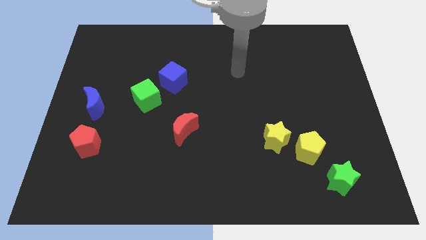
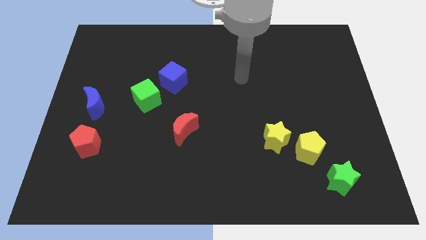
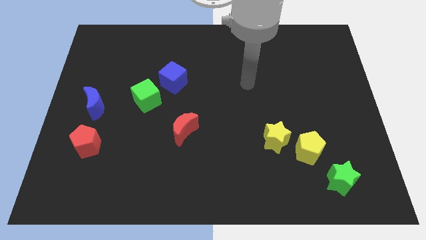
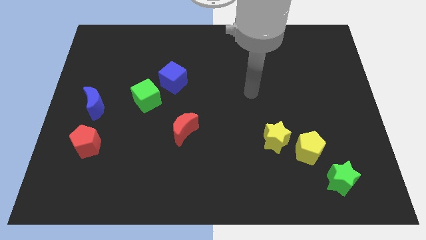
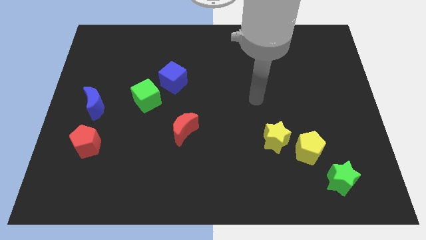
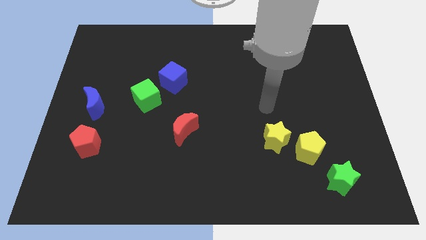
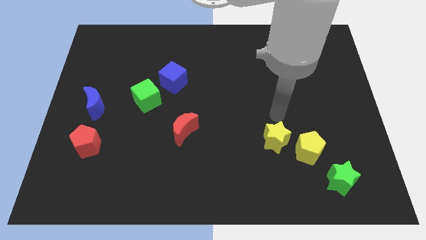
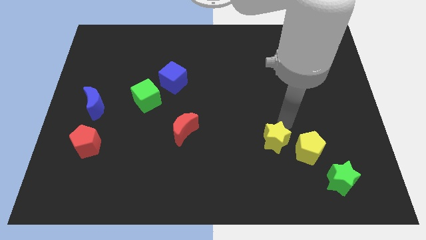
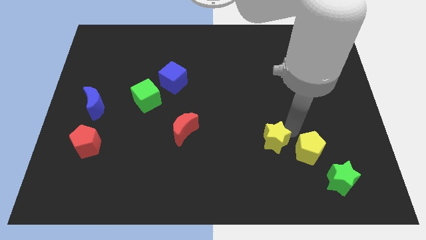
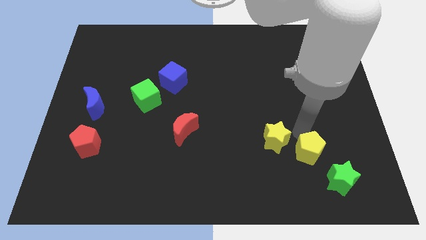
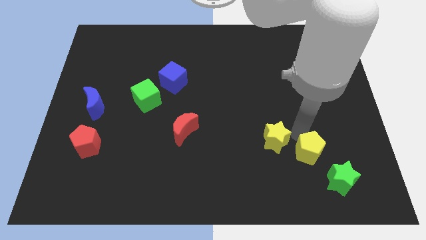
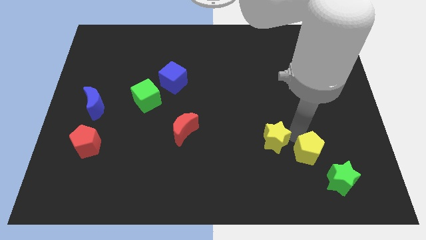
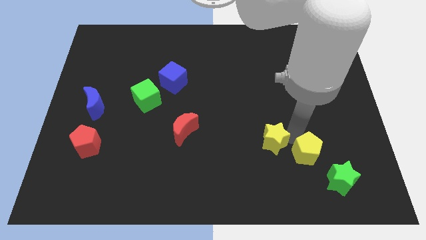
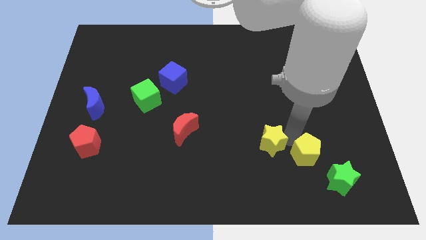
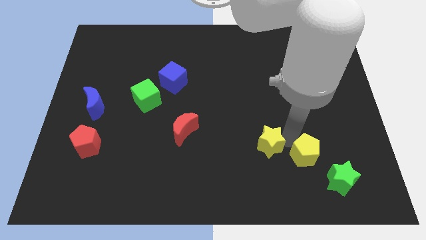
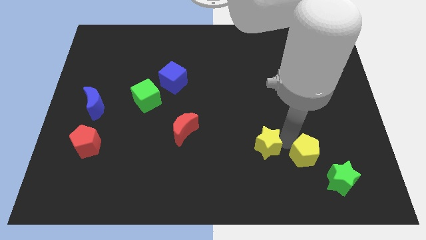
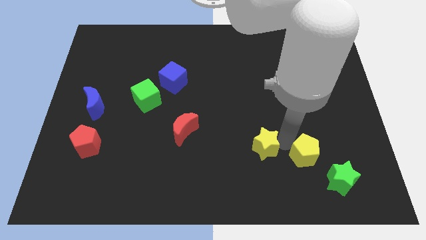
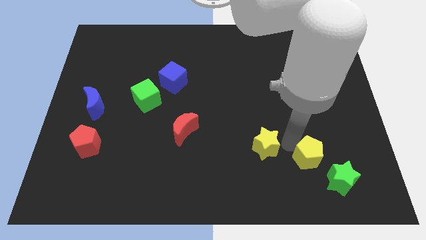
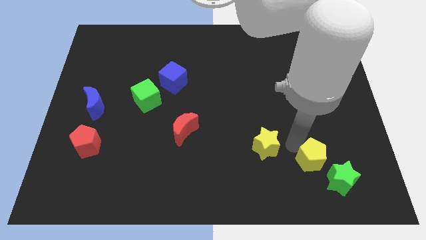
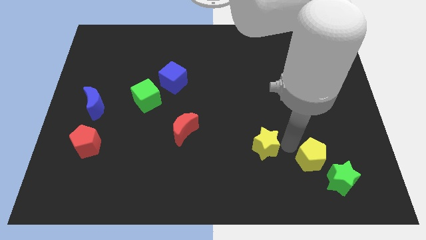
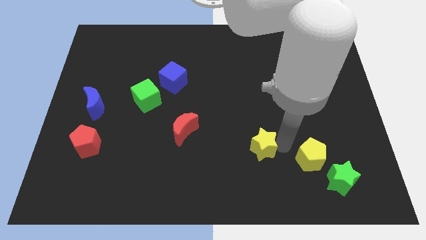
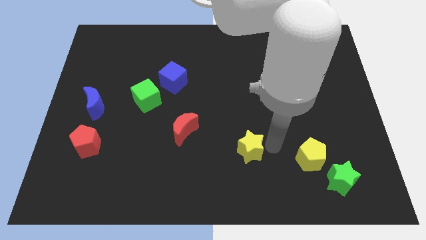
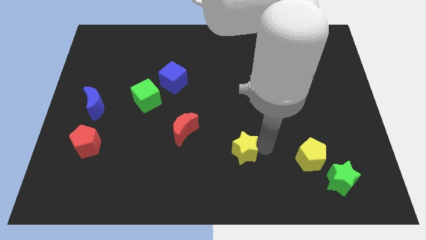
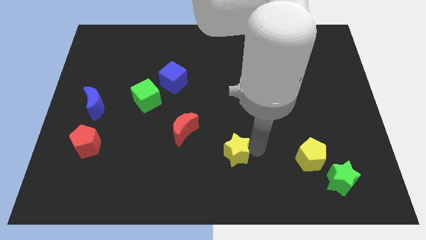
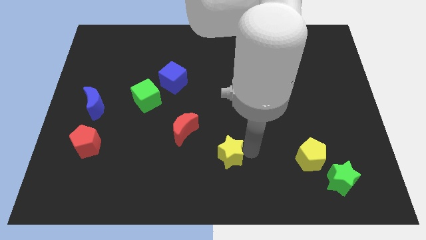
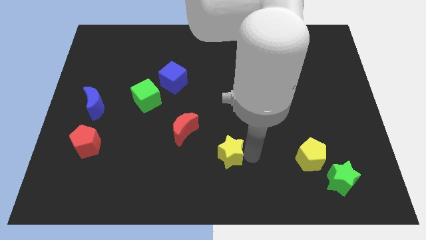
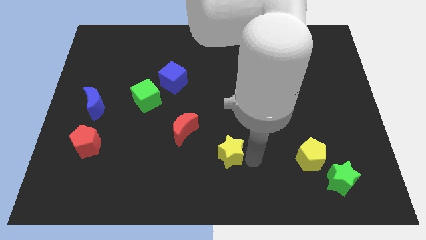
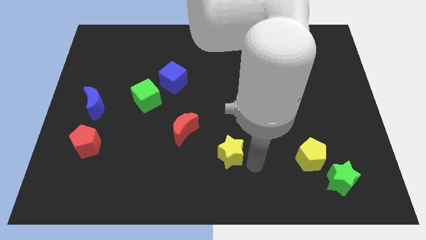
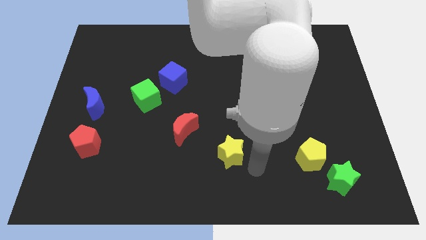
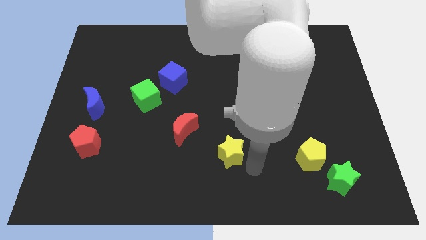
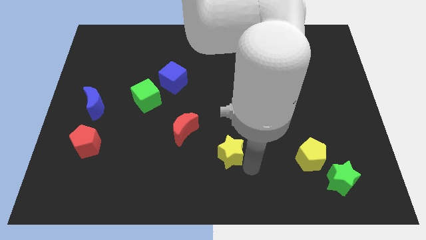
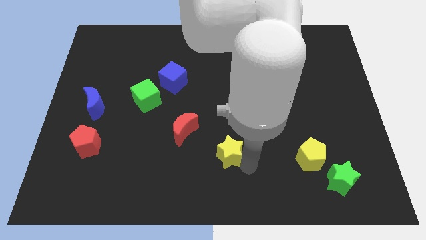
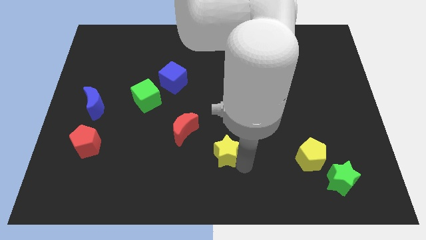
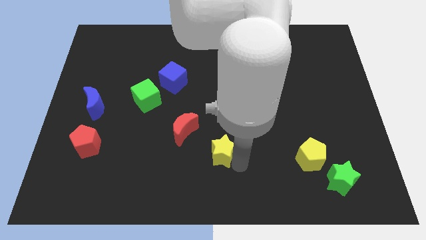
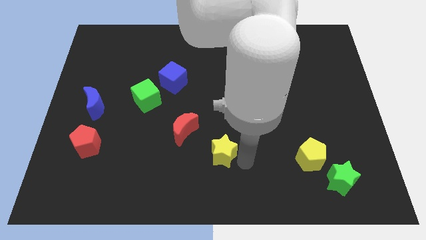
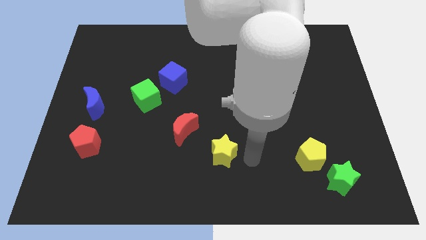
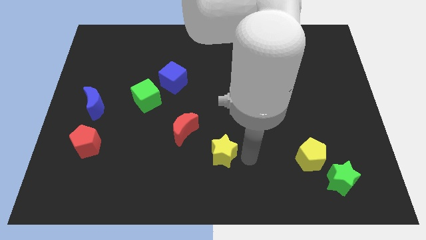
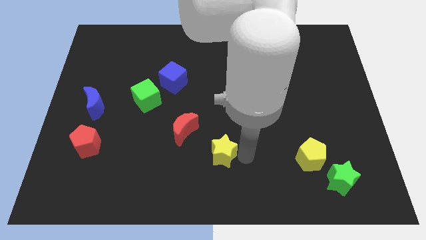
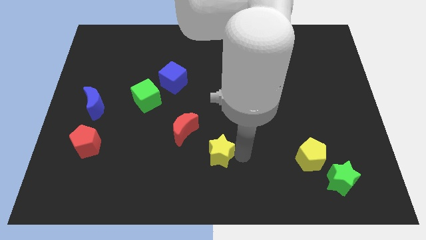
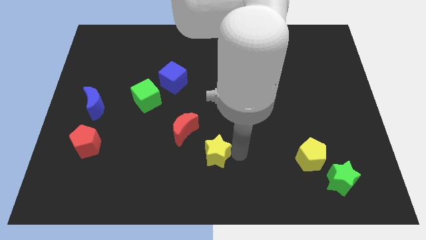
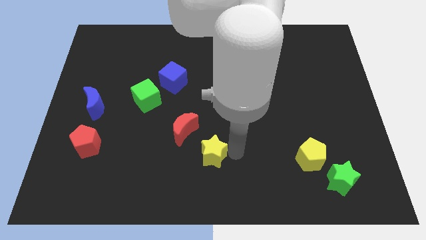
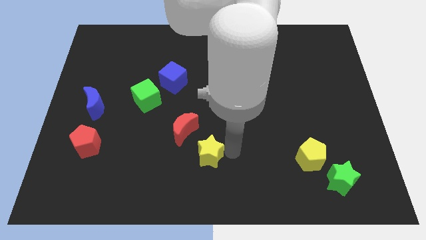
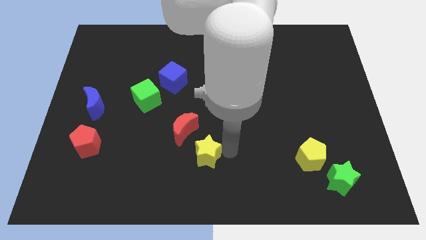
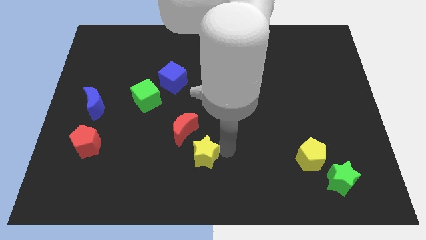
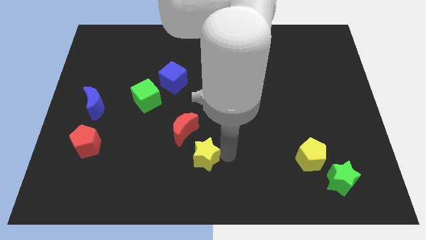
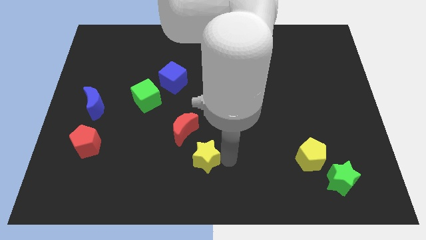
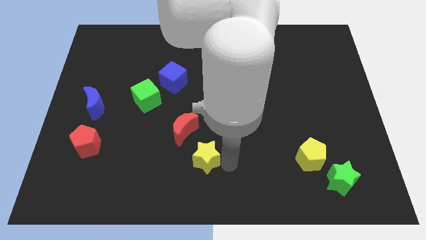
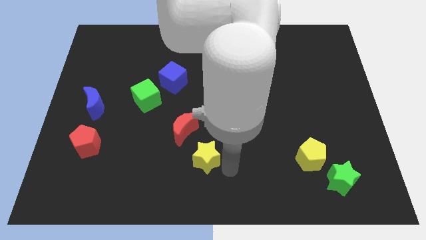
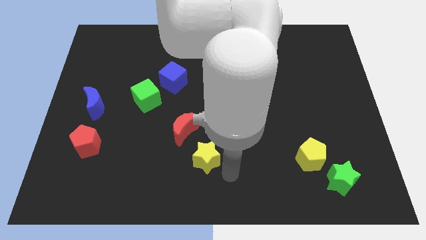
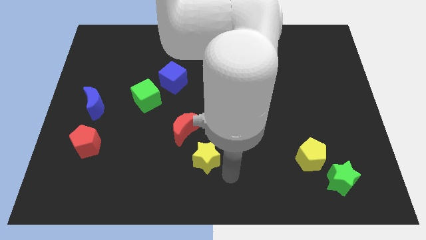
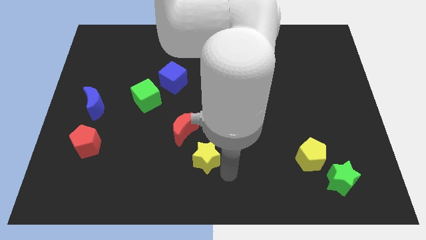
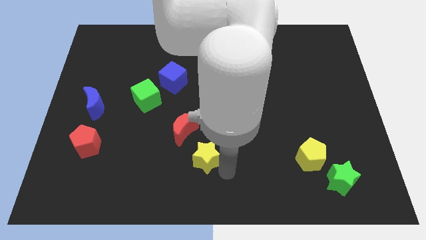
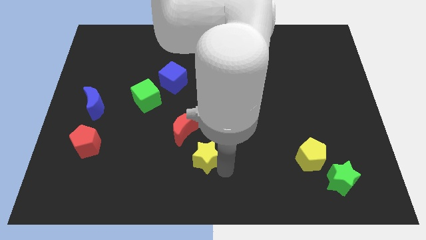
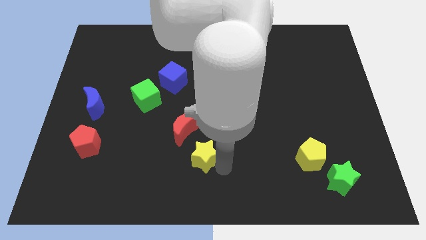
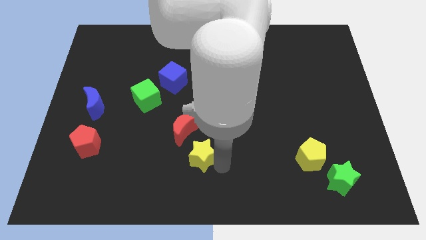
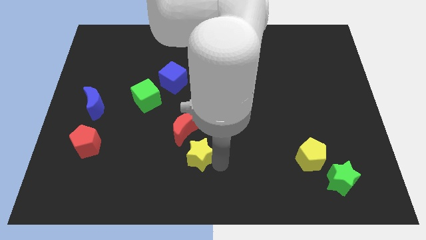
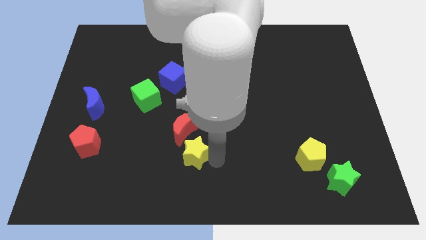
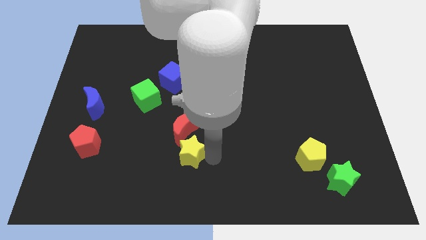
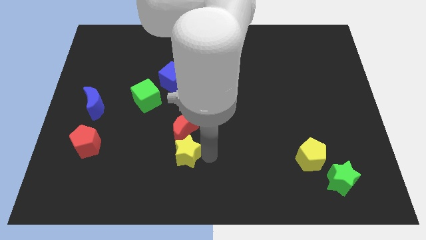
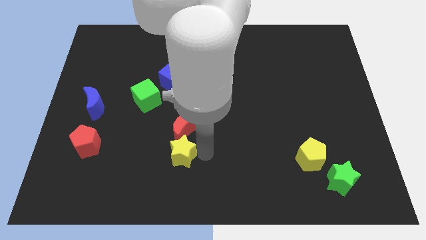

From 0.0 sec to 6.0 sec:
move the yellow star left

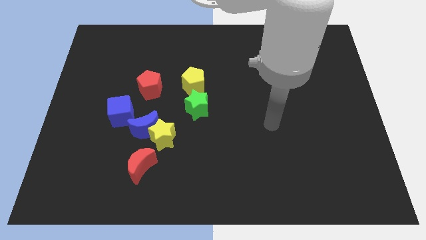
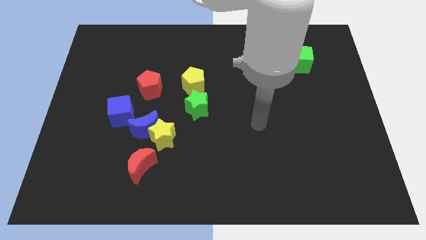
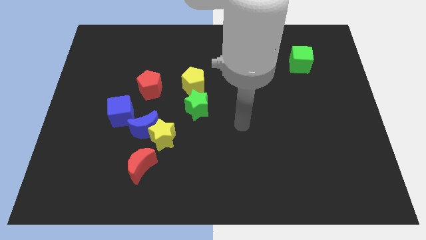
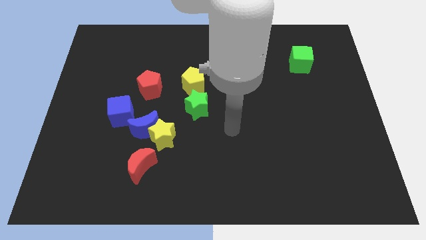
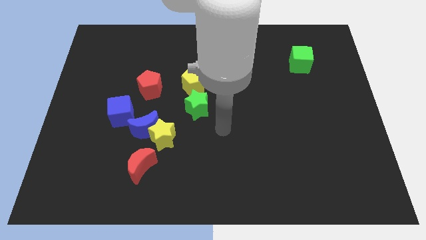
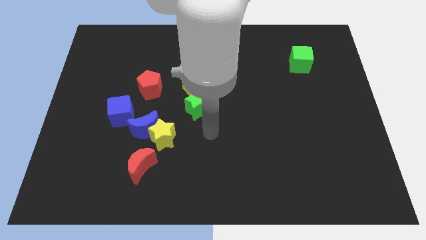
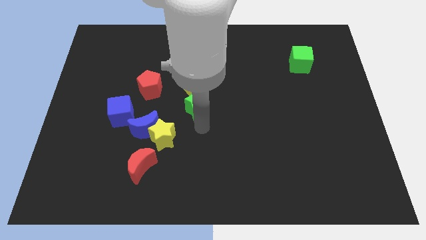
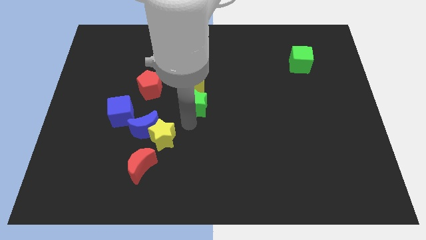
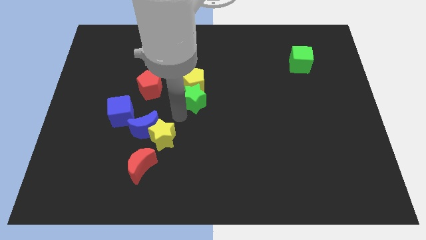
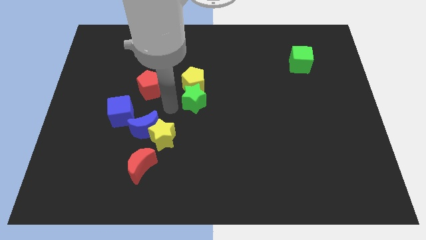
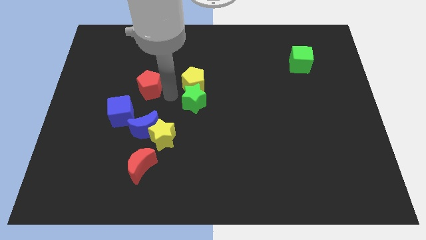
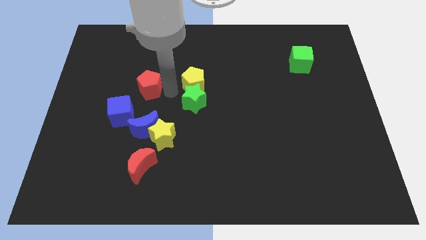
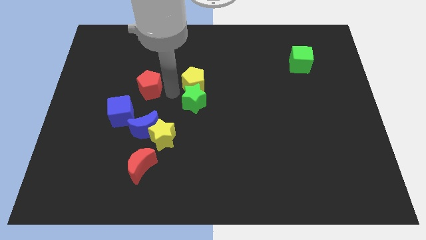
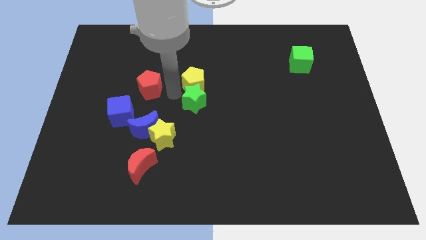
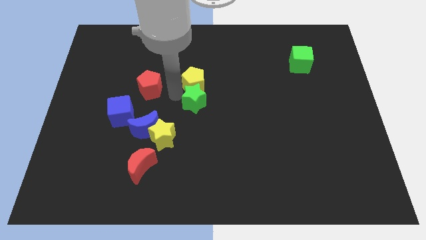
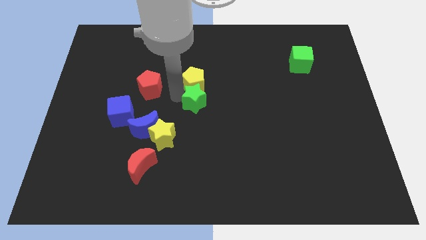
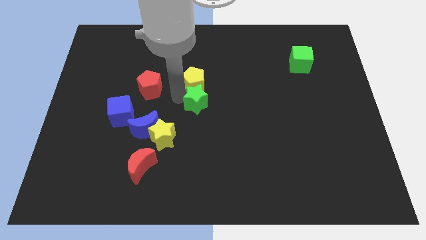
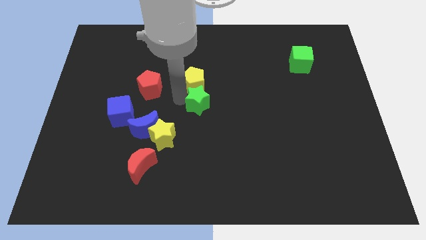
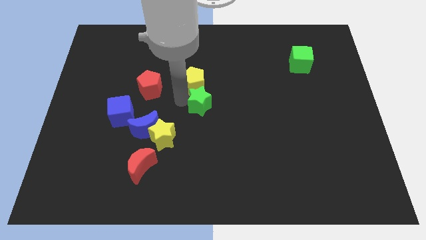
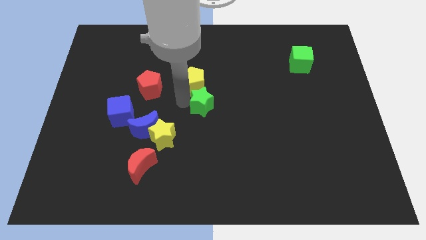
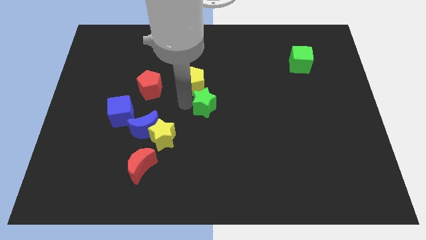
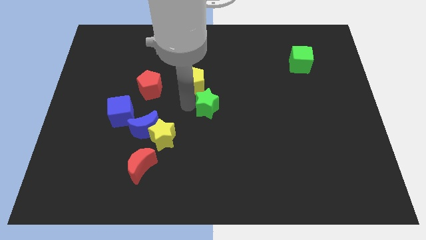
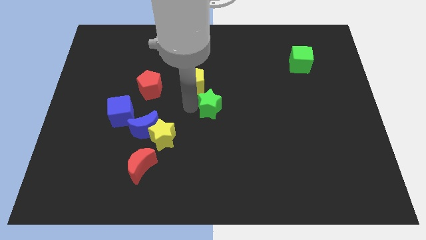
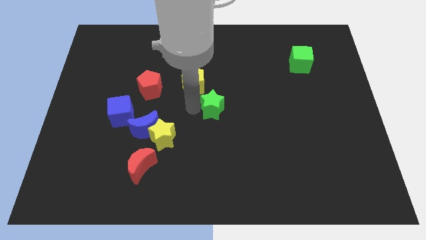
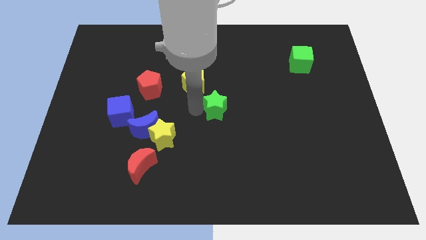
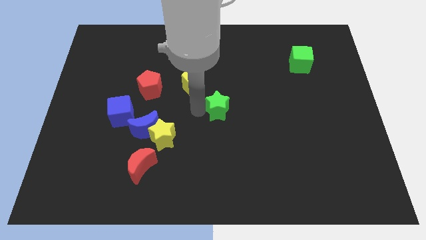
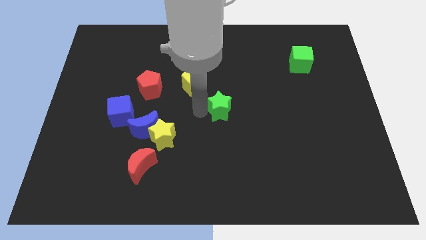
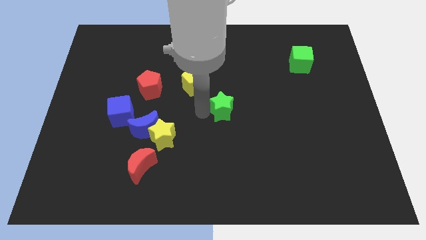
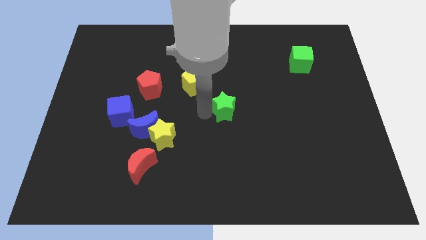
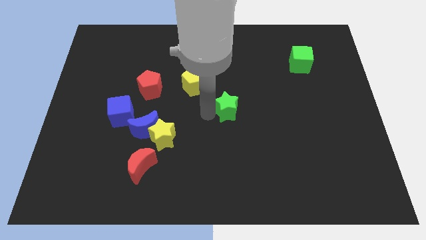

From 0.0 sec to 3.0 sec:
slide the green star a little to the right
